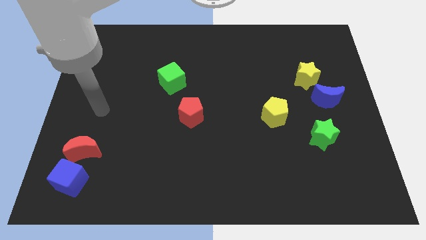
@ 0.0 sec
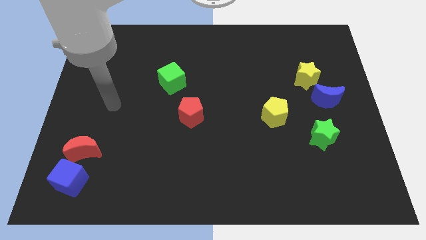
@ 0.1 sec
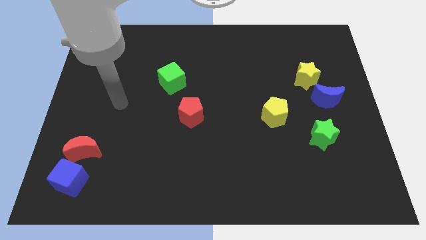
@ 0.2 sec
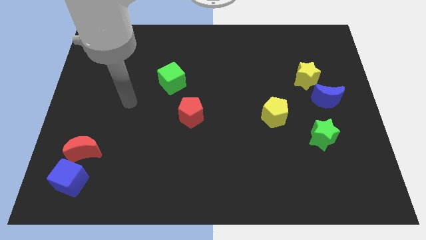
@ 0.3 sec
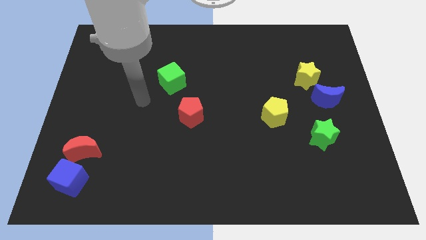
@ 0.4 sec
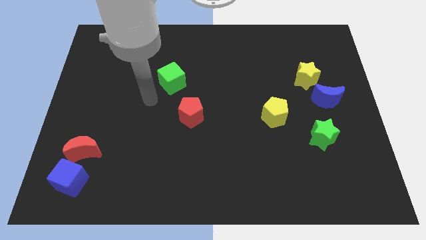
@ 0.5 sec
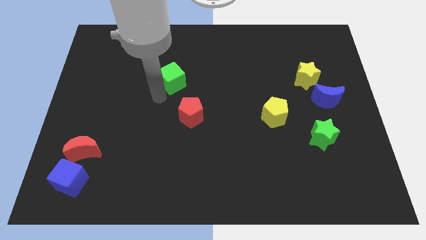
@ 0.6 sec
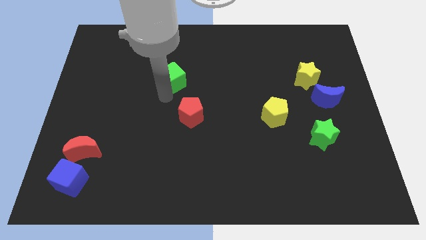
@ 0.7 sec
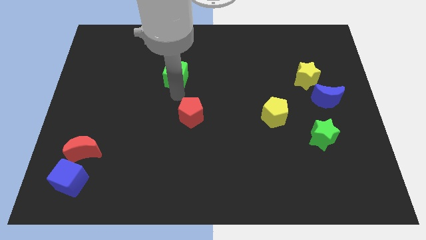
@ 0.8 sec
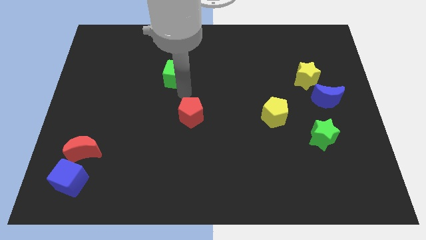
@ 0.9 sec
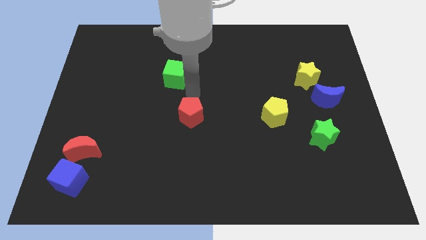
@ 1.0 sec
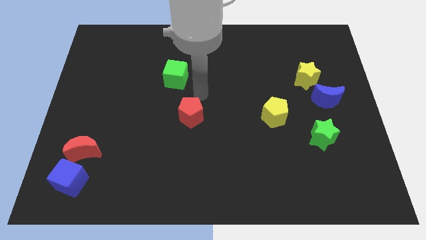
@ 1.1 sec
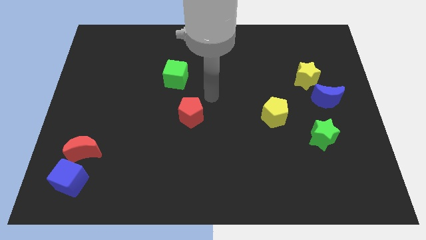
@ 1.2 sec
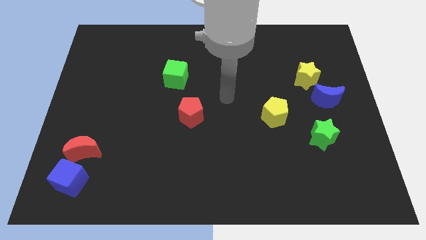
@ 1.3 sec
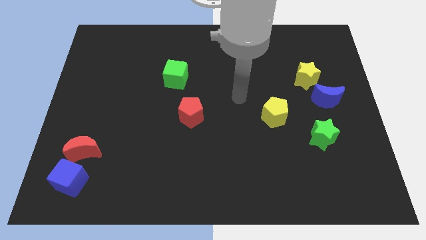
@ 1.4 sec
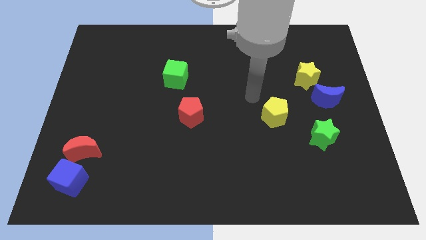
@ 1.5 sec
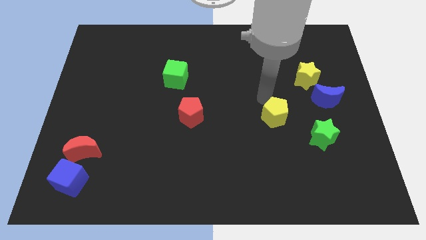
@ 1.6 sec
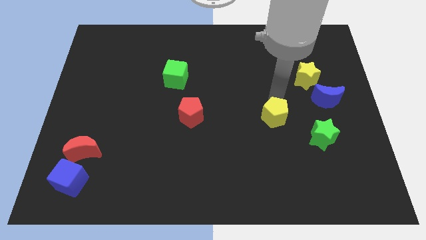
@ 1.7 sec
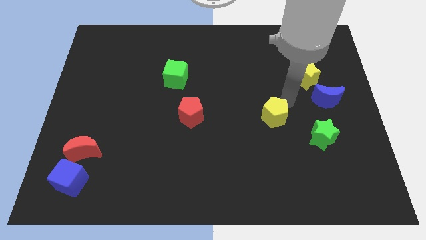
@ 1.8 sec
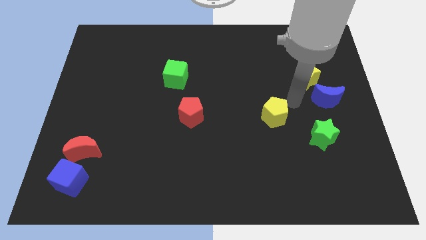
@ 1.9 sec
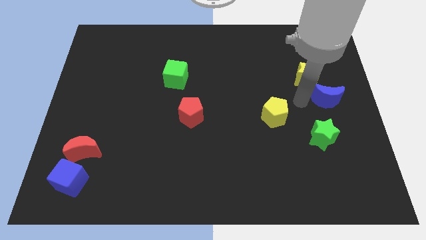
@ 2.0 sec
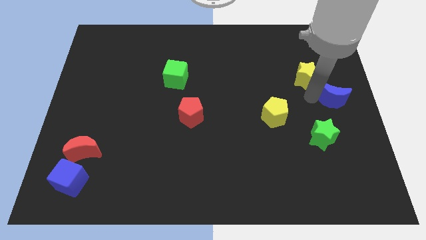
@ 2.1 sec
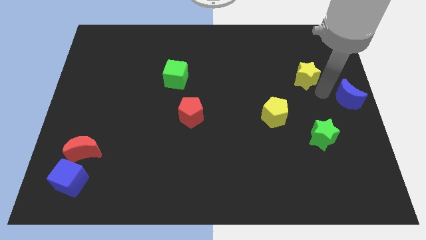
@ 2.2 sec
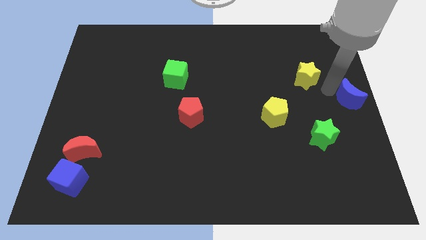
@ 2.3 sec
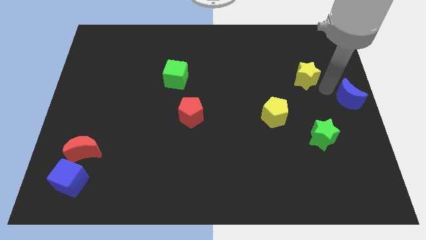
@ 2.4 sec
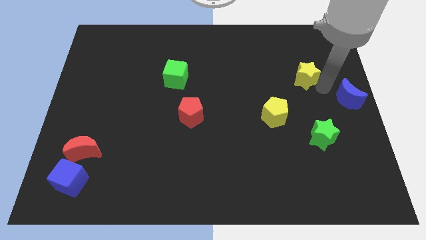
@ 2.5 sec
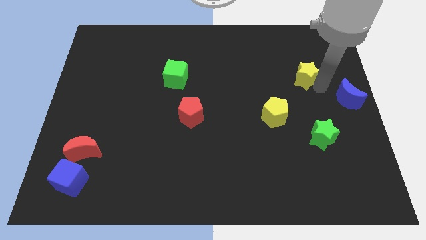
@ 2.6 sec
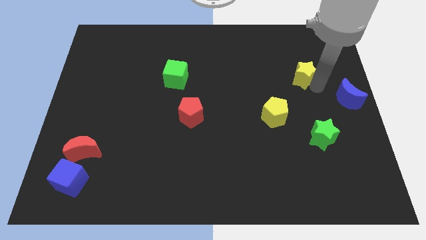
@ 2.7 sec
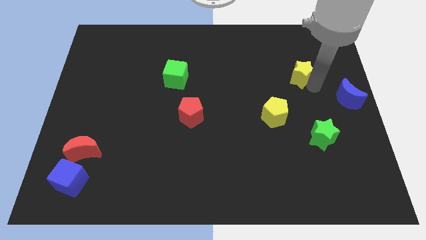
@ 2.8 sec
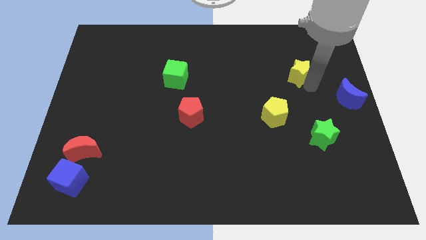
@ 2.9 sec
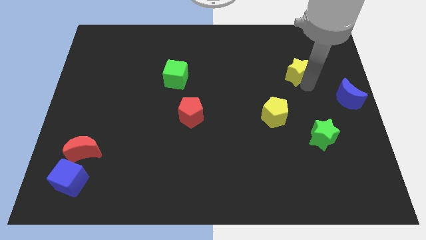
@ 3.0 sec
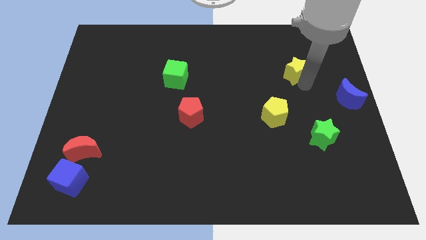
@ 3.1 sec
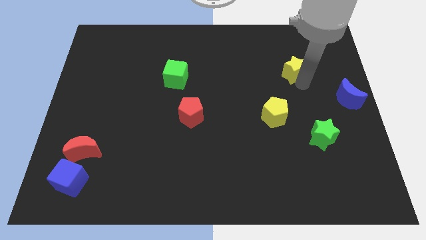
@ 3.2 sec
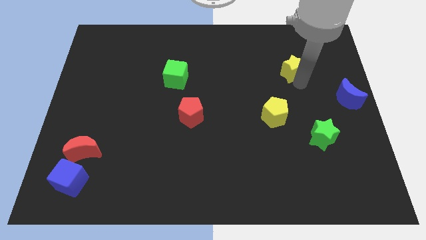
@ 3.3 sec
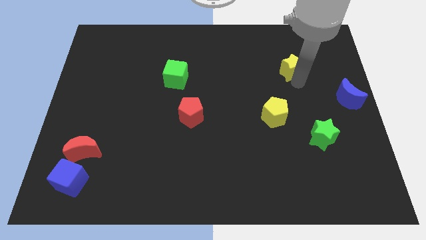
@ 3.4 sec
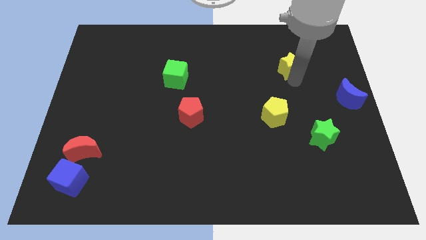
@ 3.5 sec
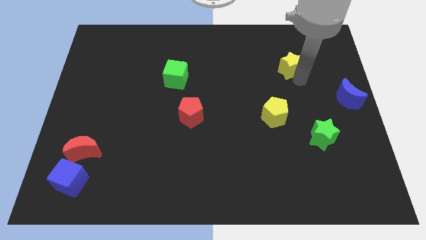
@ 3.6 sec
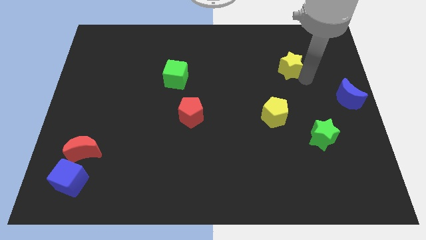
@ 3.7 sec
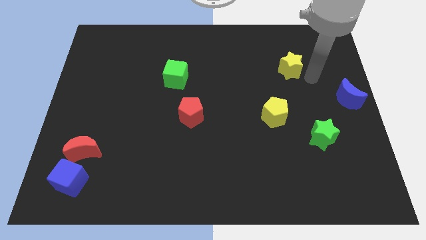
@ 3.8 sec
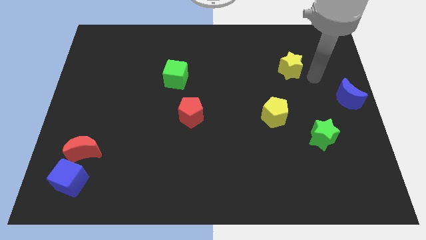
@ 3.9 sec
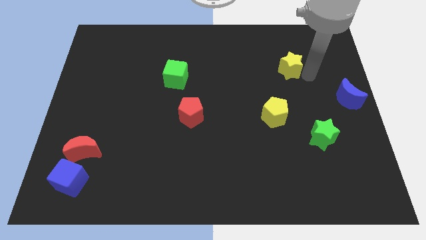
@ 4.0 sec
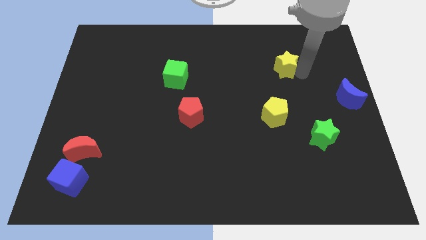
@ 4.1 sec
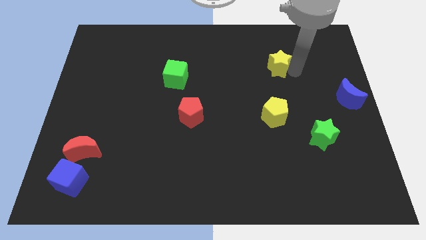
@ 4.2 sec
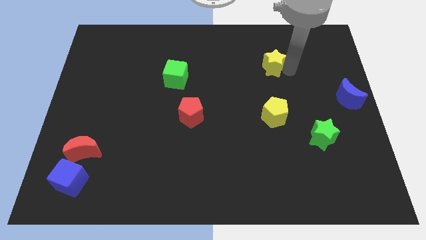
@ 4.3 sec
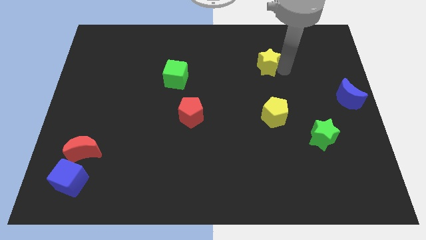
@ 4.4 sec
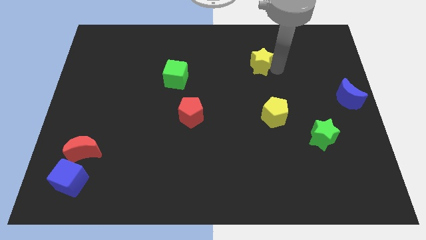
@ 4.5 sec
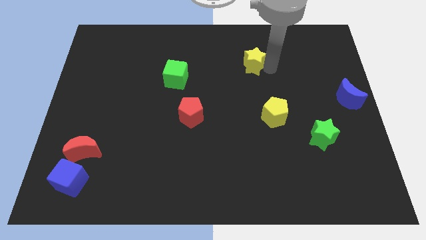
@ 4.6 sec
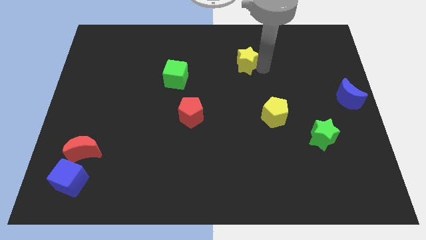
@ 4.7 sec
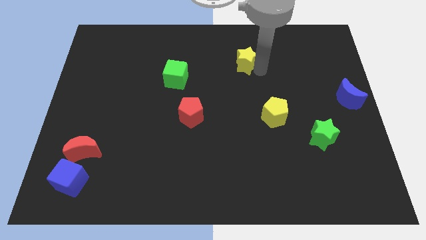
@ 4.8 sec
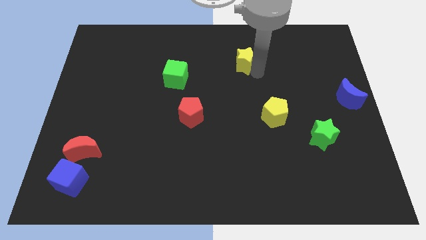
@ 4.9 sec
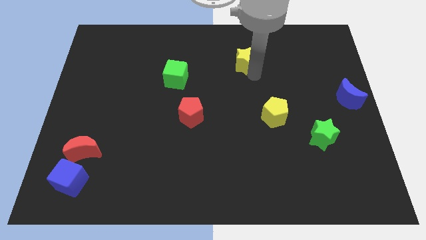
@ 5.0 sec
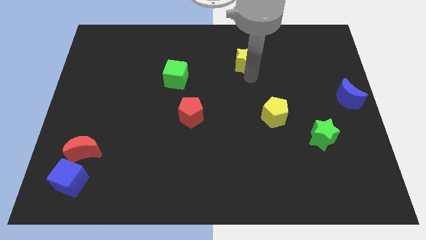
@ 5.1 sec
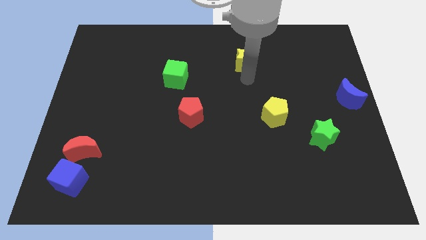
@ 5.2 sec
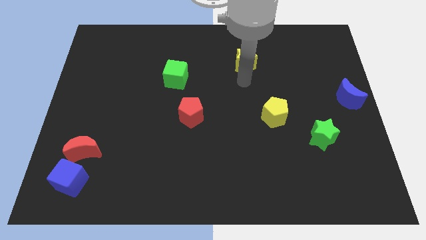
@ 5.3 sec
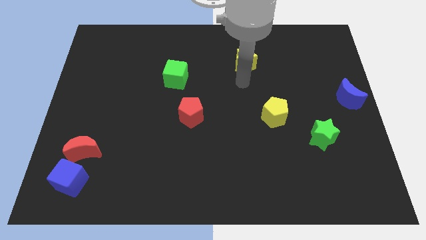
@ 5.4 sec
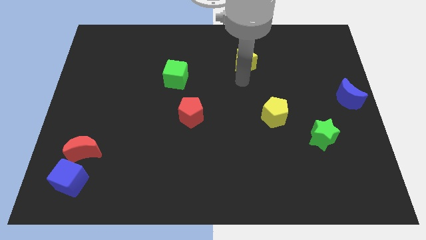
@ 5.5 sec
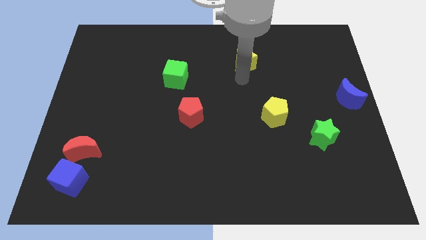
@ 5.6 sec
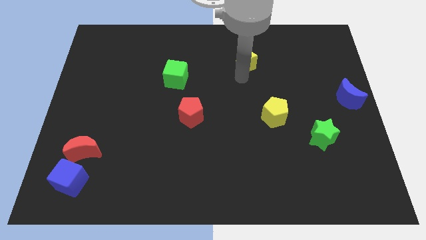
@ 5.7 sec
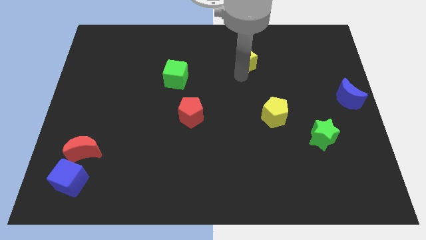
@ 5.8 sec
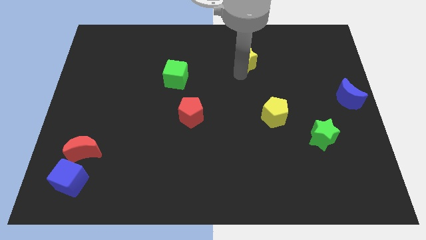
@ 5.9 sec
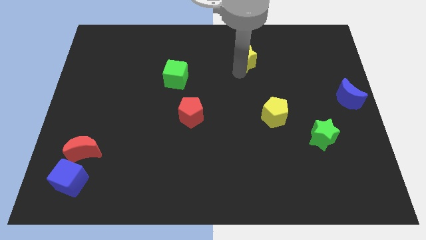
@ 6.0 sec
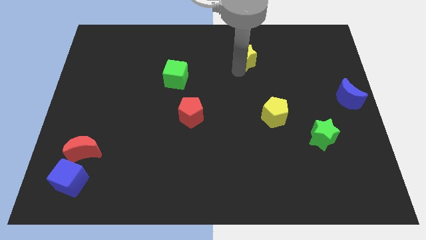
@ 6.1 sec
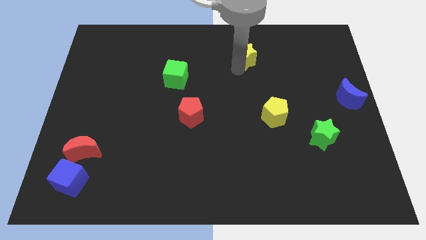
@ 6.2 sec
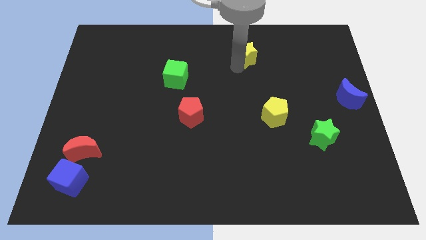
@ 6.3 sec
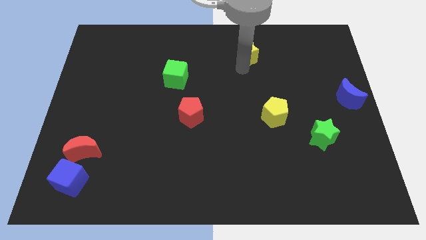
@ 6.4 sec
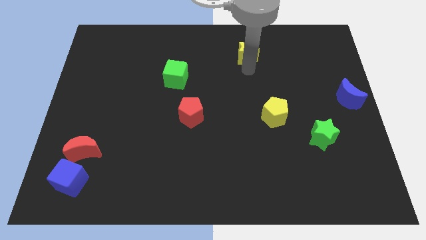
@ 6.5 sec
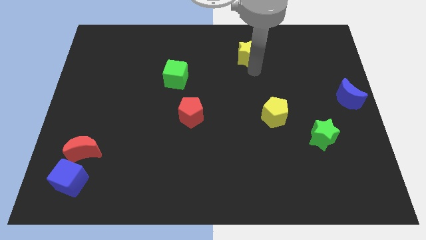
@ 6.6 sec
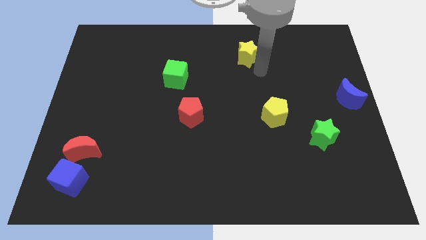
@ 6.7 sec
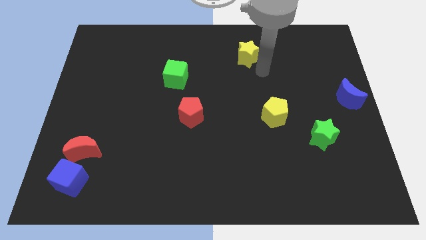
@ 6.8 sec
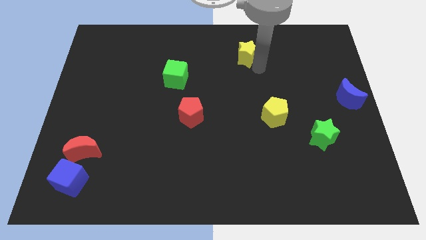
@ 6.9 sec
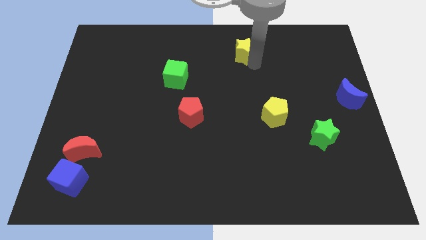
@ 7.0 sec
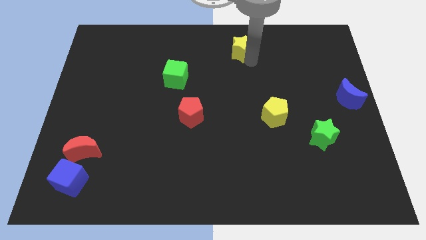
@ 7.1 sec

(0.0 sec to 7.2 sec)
put the yellow star to the top side
